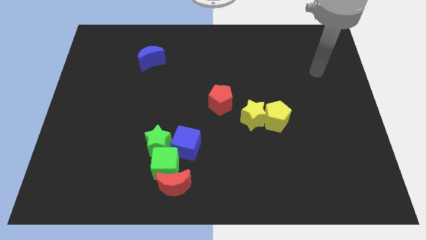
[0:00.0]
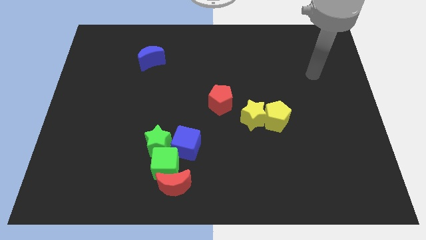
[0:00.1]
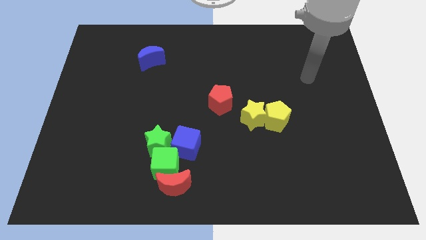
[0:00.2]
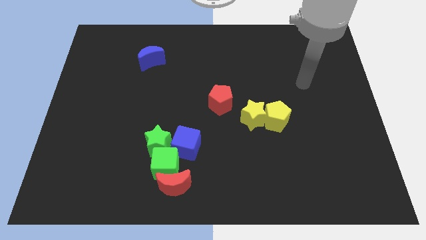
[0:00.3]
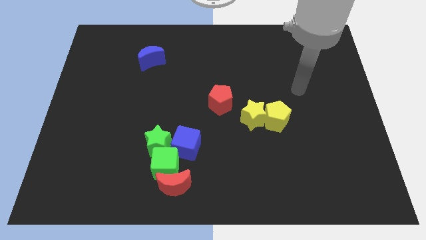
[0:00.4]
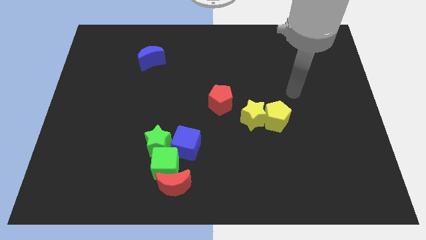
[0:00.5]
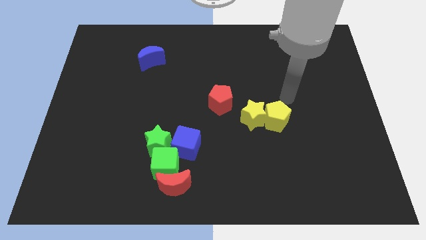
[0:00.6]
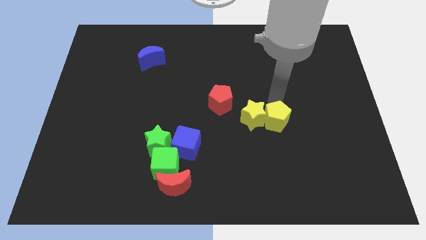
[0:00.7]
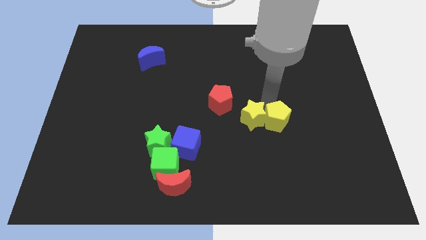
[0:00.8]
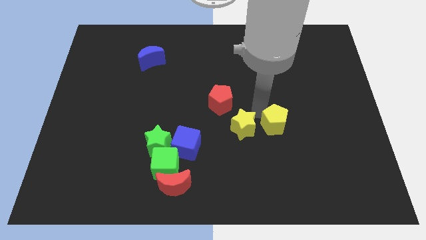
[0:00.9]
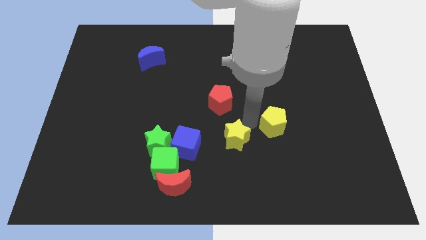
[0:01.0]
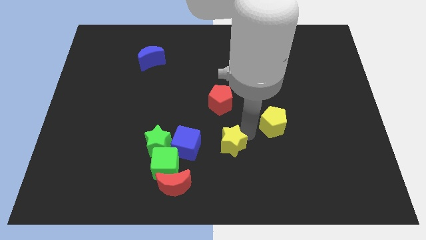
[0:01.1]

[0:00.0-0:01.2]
move the yellow pentagon away from the yellow star

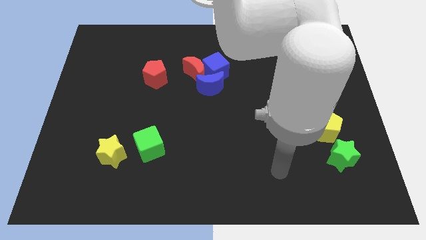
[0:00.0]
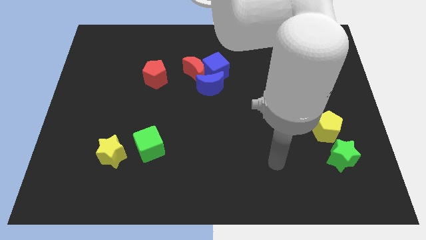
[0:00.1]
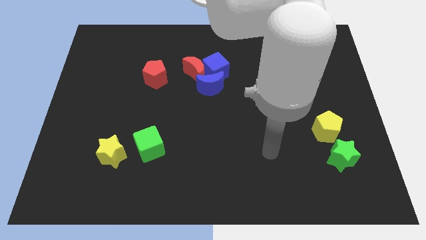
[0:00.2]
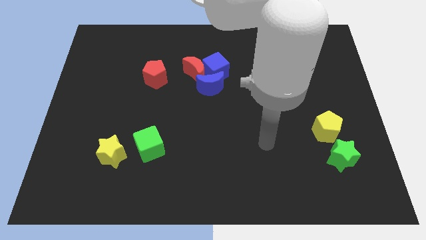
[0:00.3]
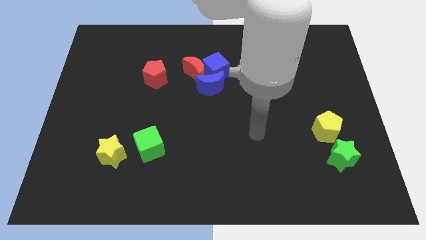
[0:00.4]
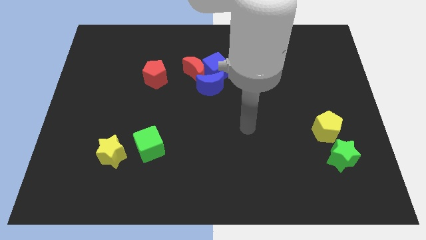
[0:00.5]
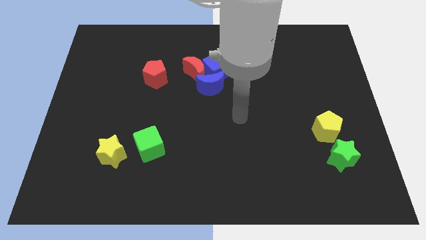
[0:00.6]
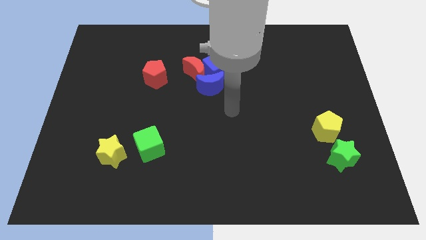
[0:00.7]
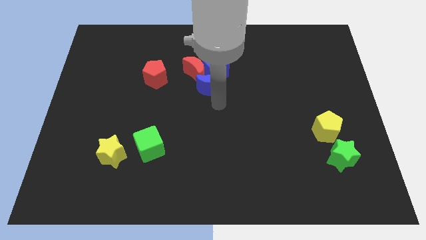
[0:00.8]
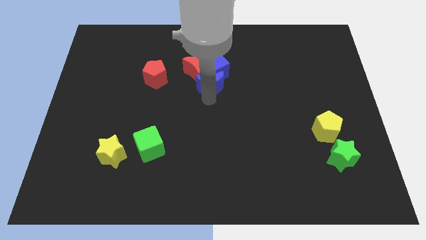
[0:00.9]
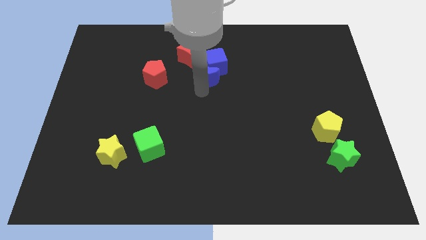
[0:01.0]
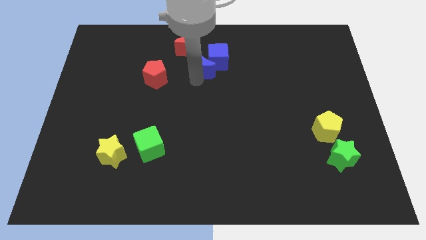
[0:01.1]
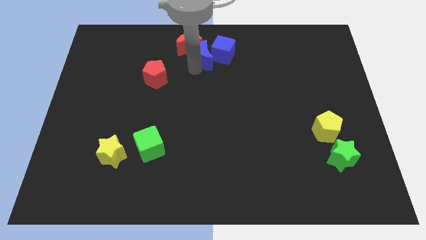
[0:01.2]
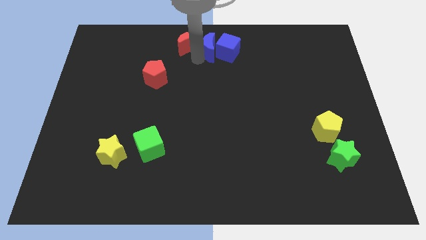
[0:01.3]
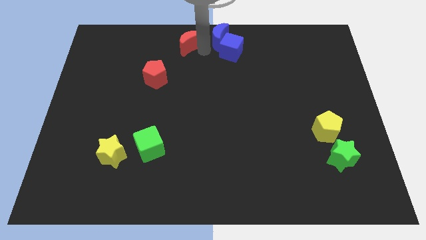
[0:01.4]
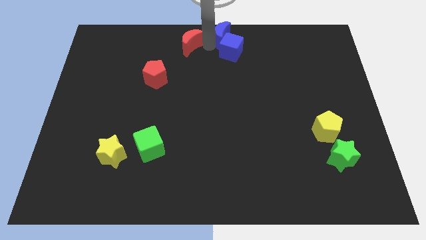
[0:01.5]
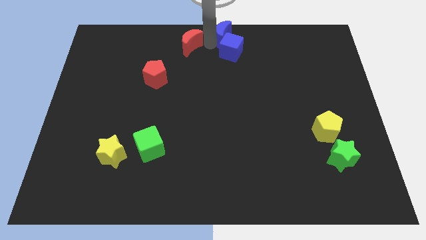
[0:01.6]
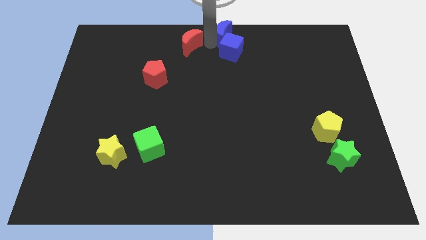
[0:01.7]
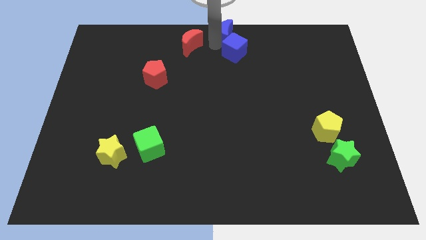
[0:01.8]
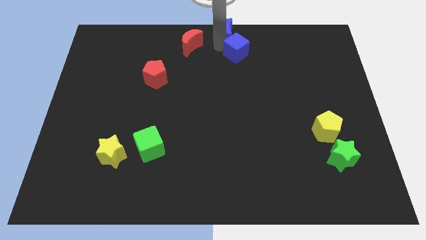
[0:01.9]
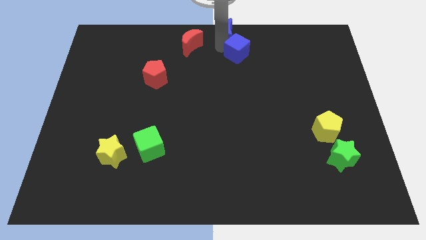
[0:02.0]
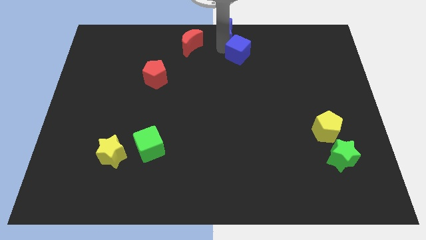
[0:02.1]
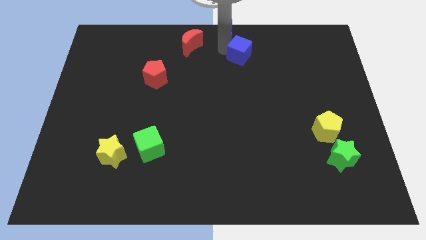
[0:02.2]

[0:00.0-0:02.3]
move the blue cube away from the red moon and blue moon

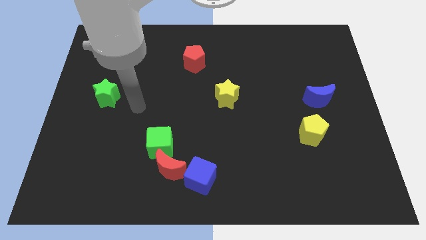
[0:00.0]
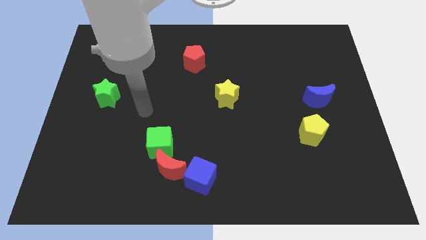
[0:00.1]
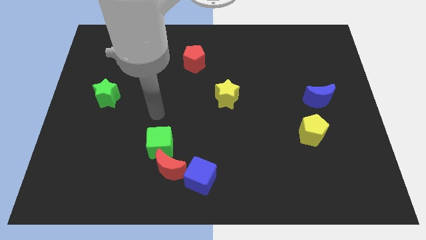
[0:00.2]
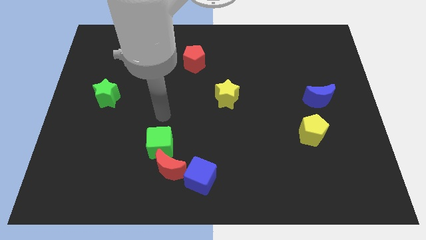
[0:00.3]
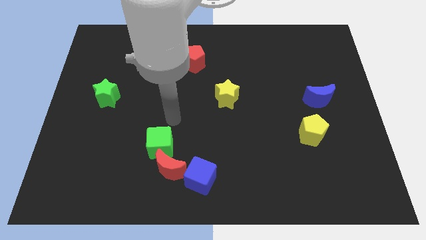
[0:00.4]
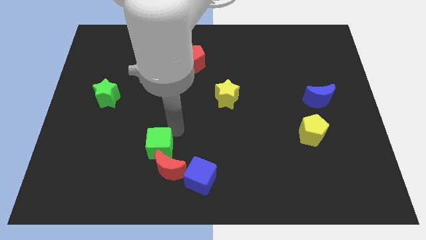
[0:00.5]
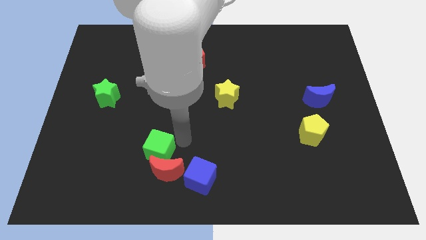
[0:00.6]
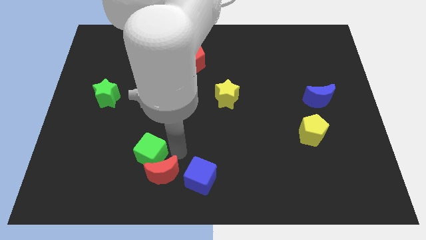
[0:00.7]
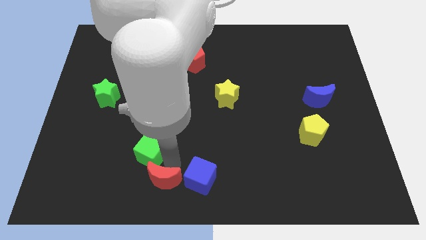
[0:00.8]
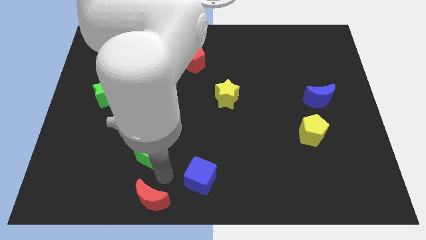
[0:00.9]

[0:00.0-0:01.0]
separate the green cube from the red moon

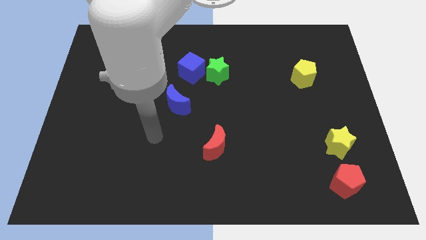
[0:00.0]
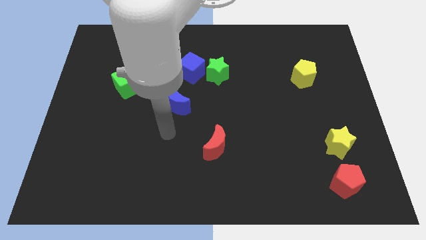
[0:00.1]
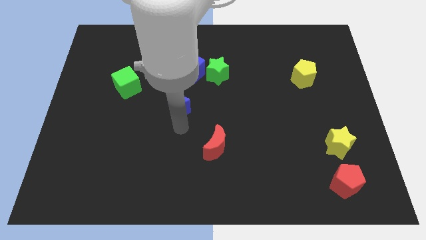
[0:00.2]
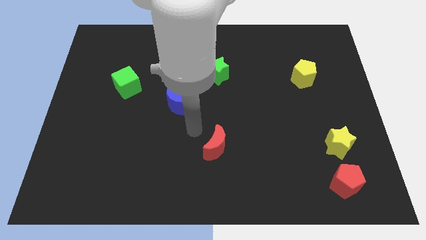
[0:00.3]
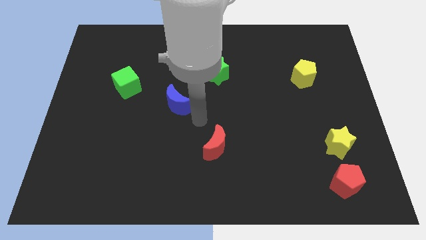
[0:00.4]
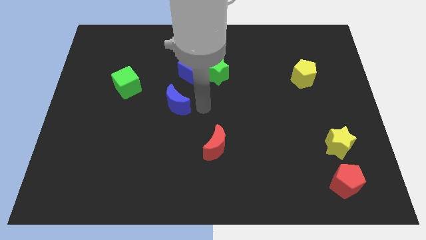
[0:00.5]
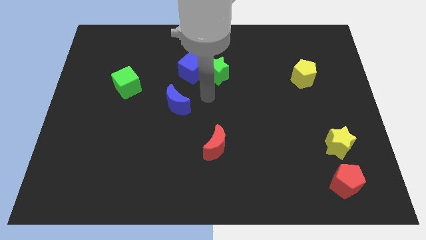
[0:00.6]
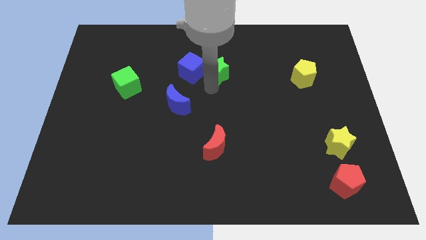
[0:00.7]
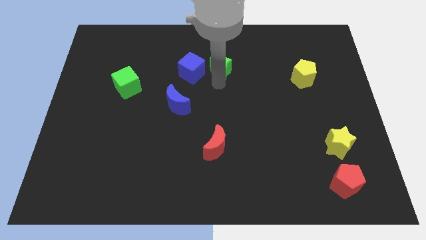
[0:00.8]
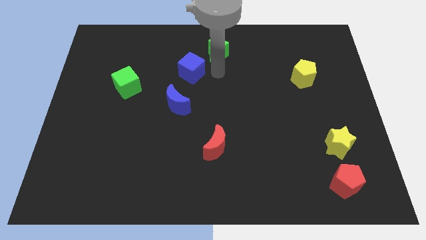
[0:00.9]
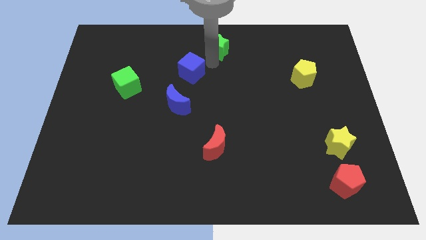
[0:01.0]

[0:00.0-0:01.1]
pull the blue cube apart from the green star

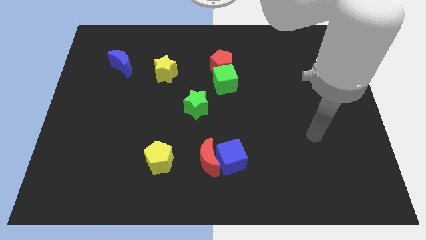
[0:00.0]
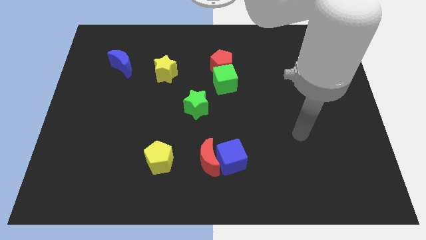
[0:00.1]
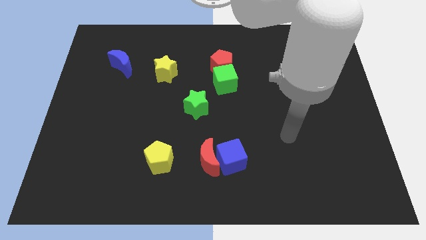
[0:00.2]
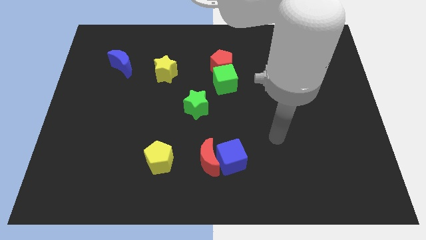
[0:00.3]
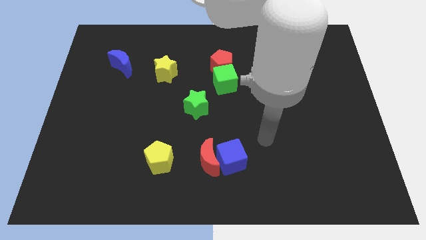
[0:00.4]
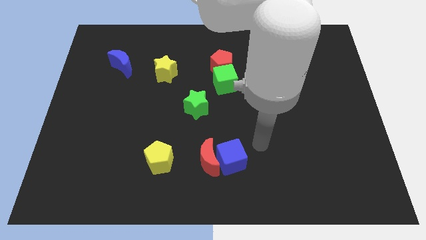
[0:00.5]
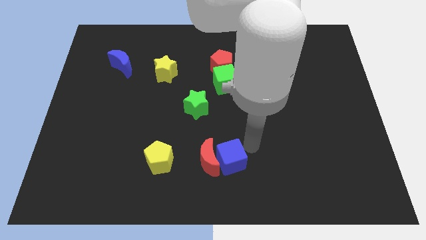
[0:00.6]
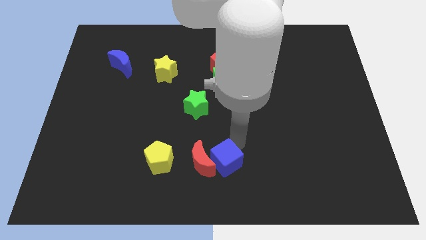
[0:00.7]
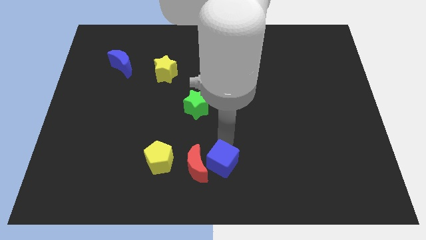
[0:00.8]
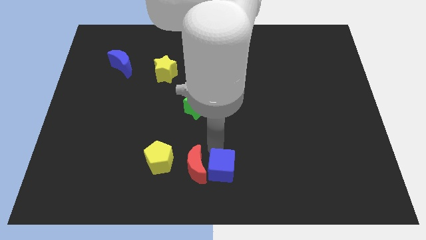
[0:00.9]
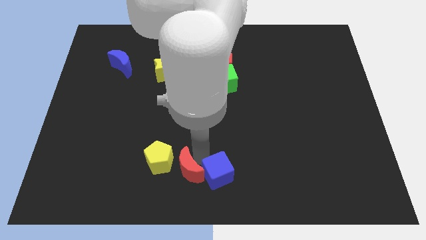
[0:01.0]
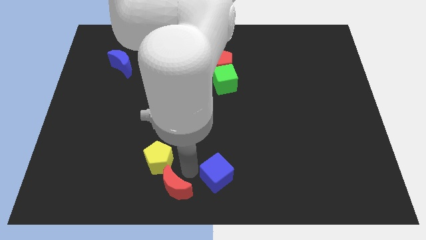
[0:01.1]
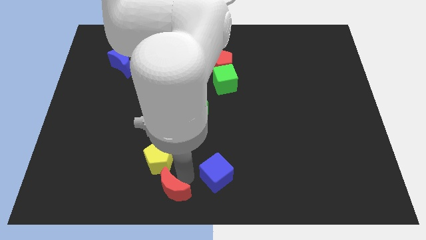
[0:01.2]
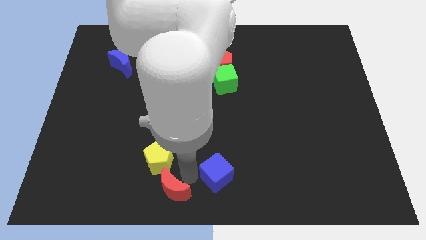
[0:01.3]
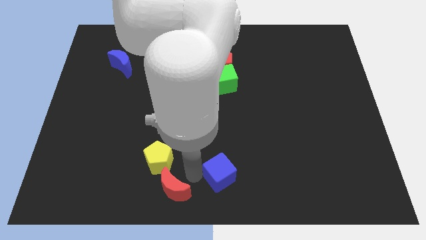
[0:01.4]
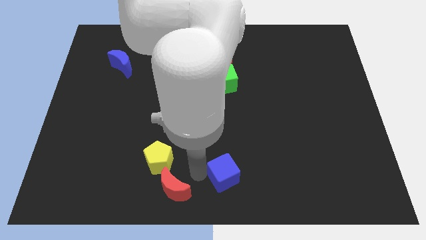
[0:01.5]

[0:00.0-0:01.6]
pull the blue cube apart from the red moon

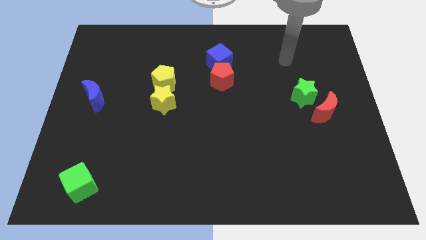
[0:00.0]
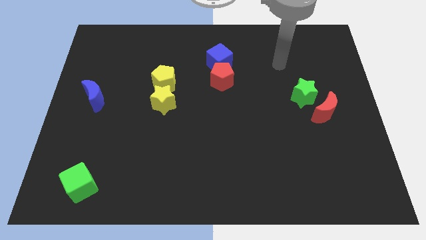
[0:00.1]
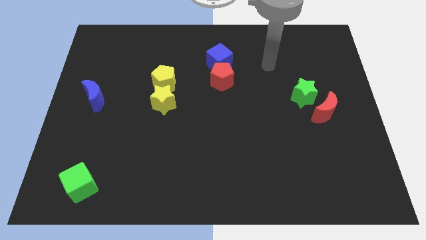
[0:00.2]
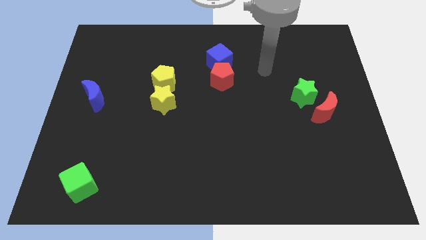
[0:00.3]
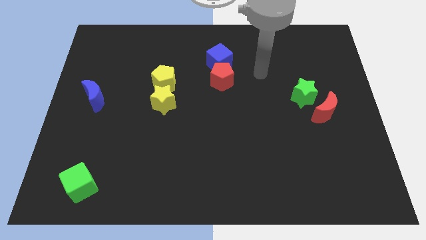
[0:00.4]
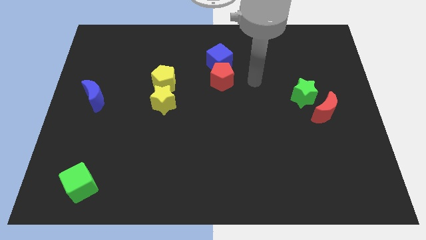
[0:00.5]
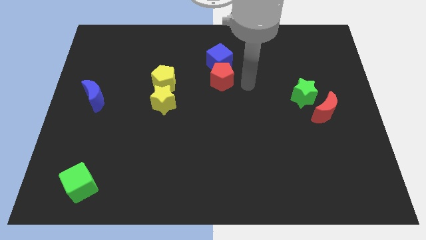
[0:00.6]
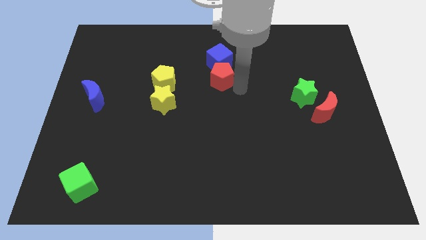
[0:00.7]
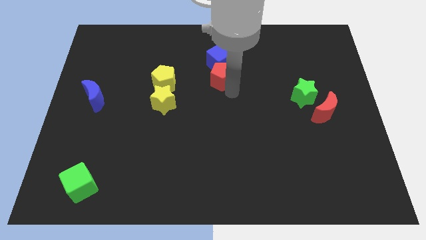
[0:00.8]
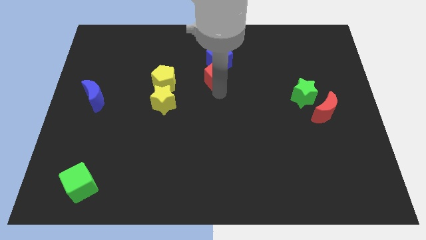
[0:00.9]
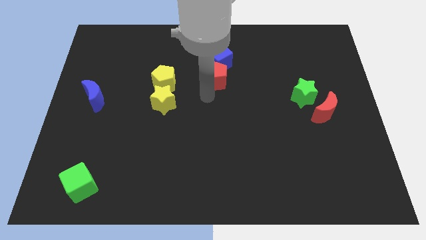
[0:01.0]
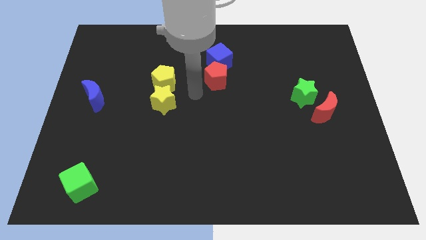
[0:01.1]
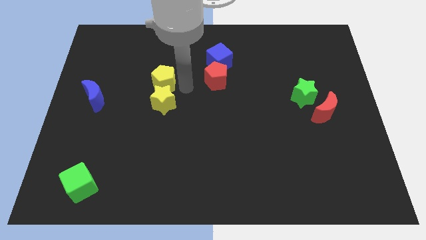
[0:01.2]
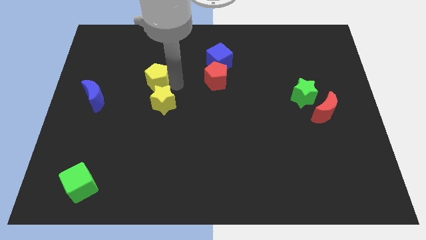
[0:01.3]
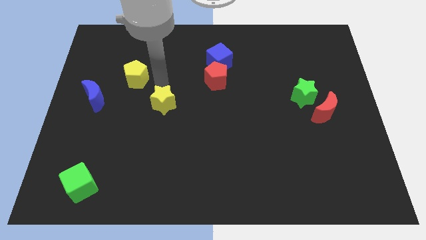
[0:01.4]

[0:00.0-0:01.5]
separate the yellow star from the yellow pentagon

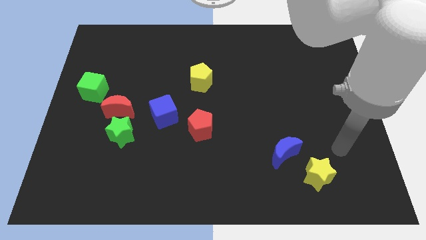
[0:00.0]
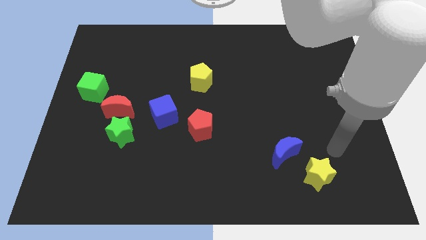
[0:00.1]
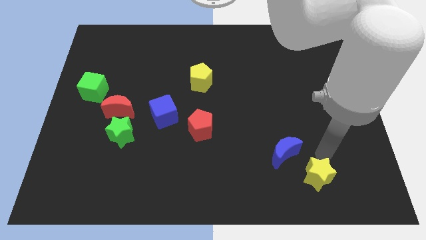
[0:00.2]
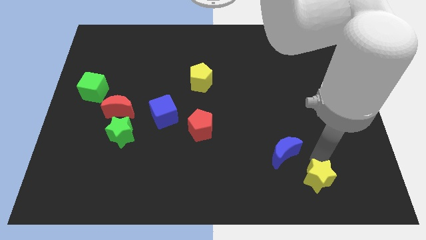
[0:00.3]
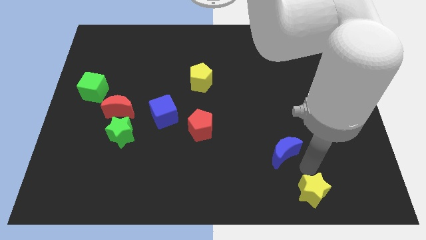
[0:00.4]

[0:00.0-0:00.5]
separate the blue moon from the yellow star
